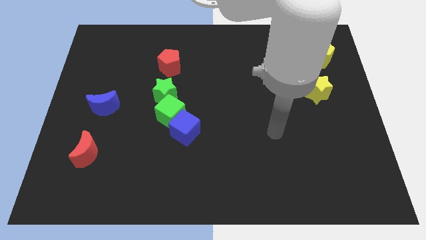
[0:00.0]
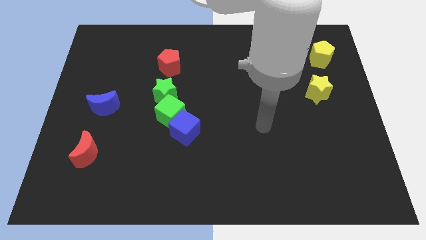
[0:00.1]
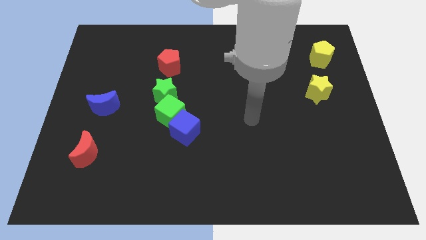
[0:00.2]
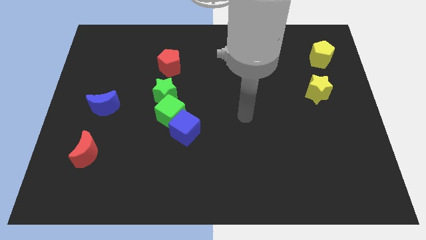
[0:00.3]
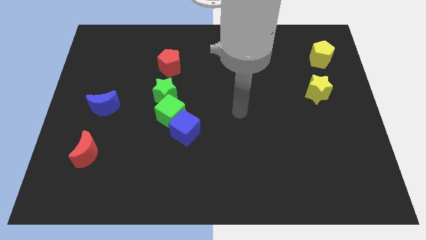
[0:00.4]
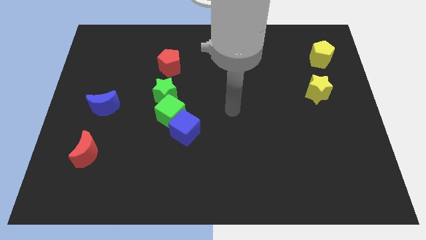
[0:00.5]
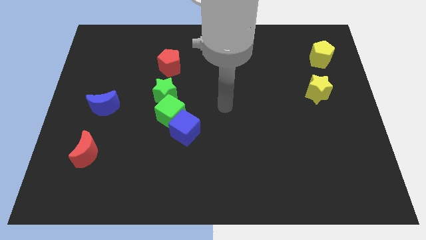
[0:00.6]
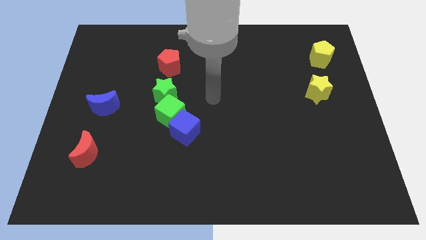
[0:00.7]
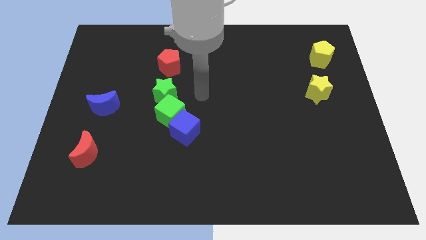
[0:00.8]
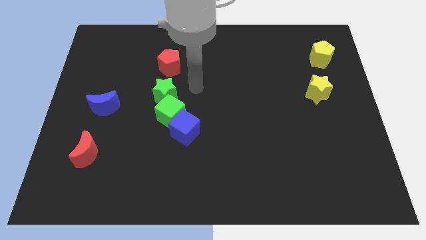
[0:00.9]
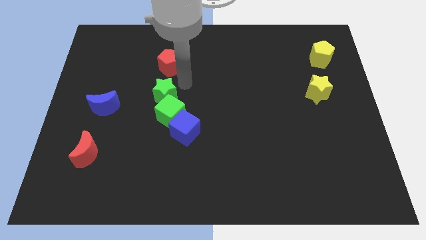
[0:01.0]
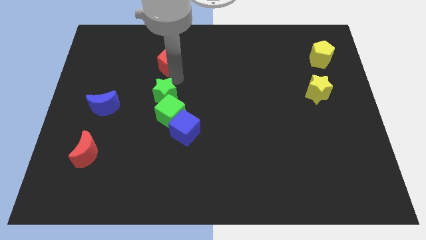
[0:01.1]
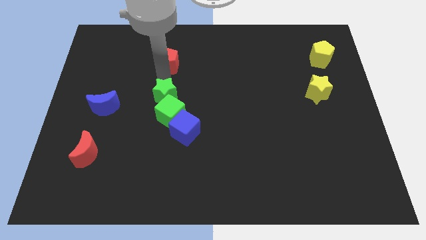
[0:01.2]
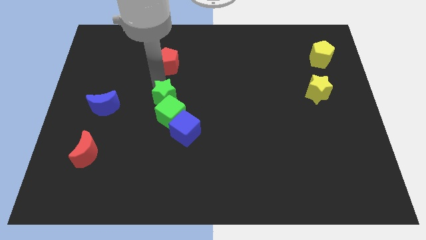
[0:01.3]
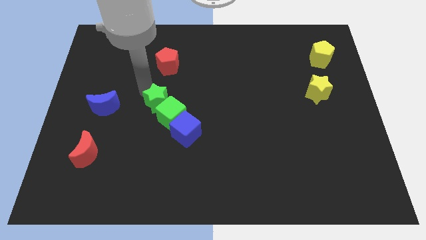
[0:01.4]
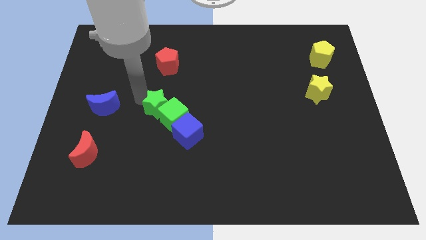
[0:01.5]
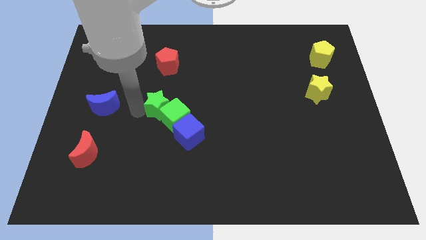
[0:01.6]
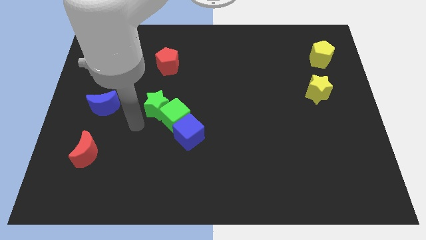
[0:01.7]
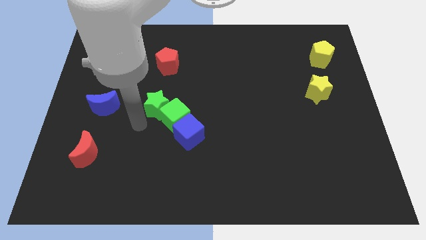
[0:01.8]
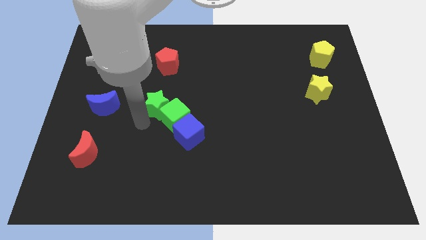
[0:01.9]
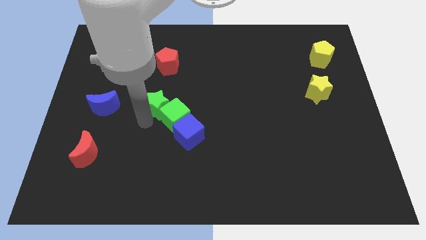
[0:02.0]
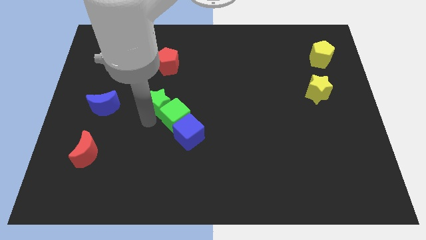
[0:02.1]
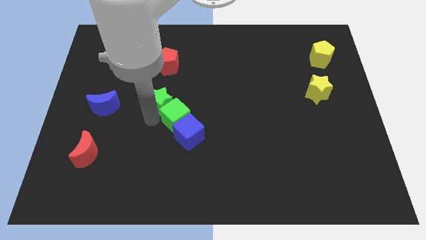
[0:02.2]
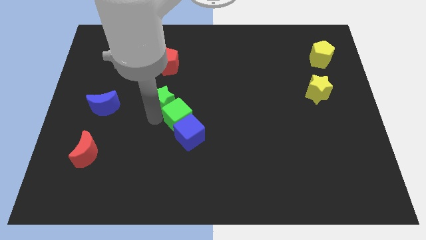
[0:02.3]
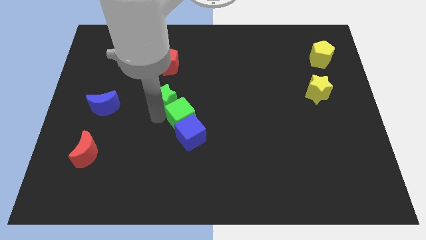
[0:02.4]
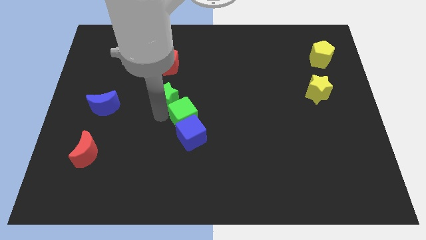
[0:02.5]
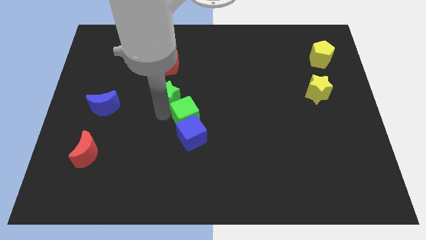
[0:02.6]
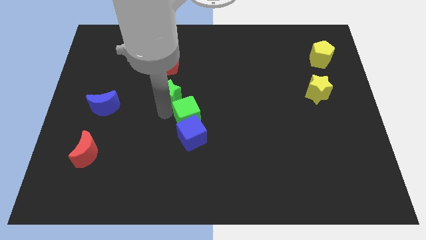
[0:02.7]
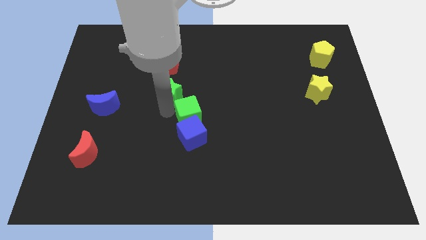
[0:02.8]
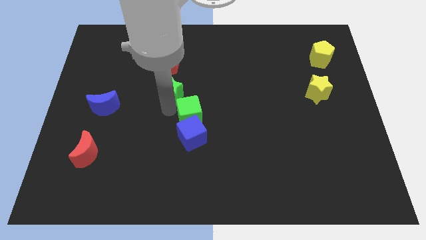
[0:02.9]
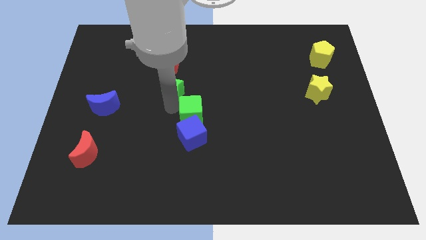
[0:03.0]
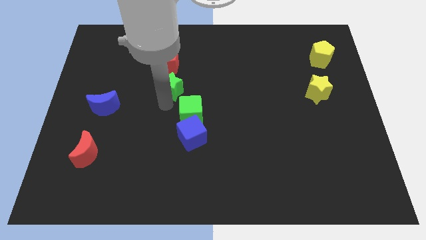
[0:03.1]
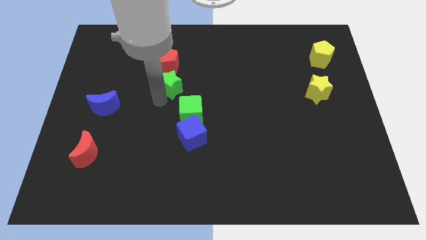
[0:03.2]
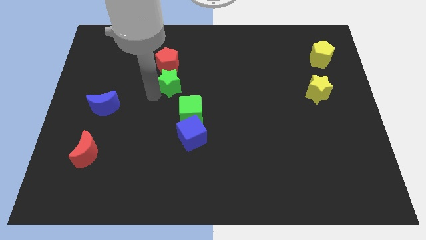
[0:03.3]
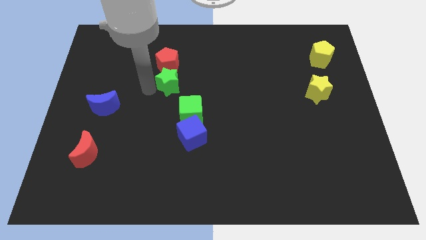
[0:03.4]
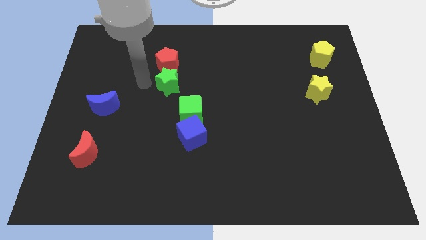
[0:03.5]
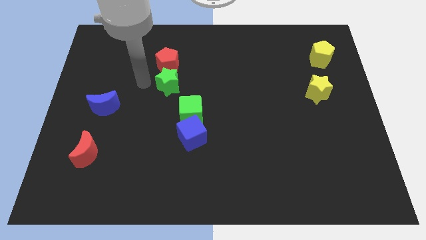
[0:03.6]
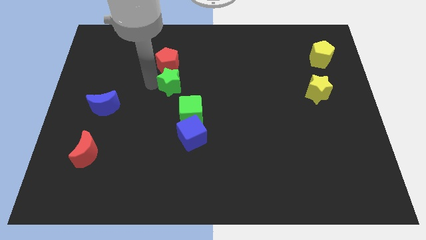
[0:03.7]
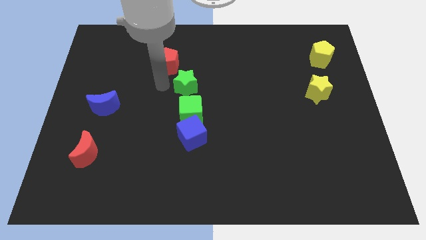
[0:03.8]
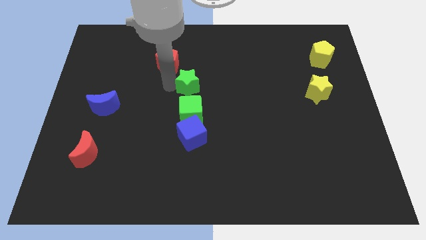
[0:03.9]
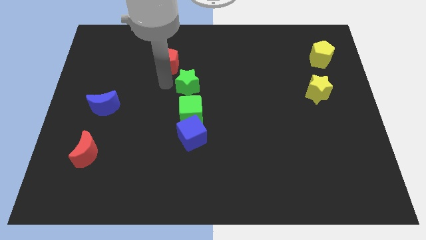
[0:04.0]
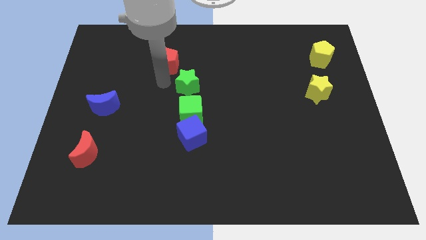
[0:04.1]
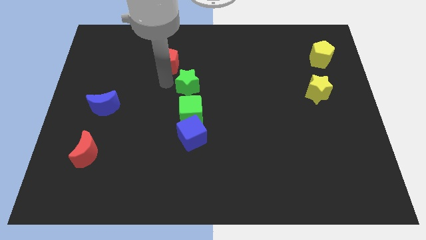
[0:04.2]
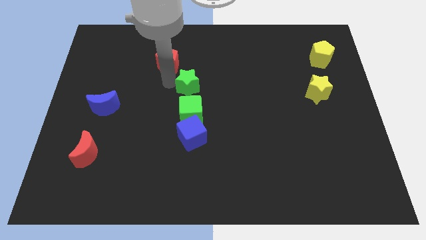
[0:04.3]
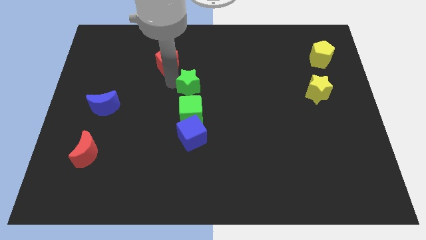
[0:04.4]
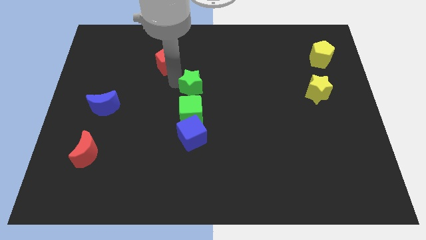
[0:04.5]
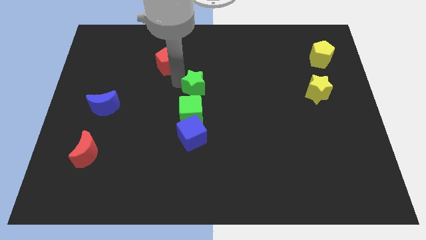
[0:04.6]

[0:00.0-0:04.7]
push the green star somewhat to the right

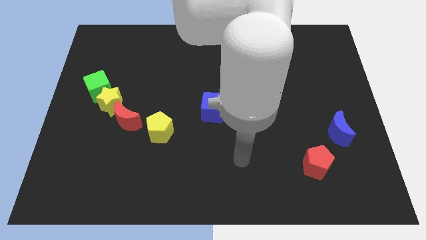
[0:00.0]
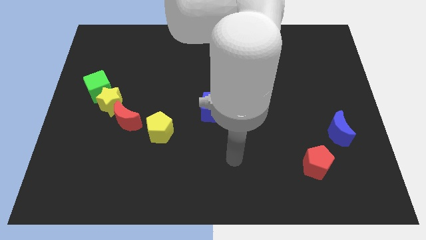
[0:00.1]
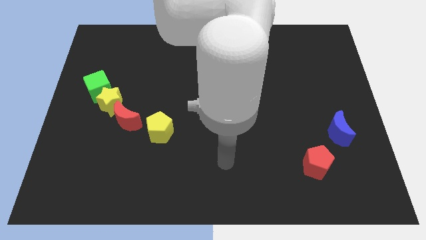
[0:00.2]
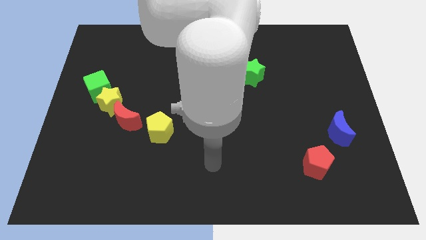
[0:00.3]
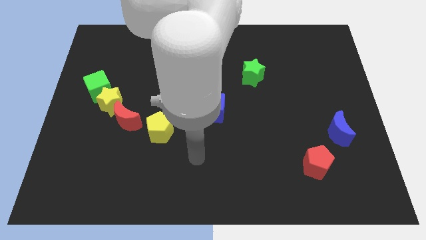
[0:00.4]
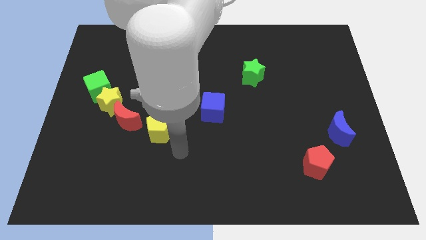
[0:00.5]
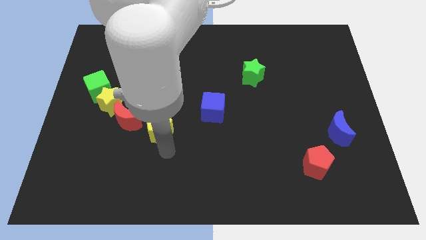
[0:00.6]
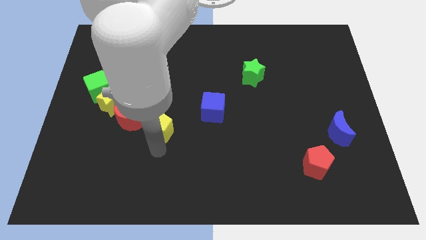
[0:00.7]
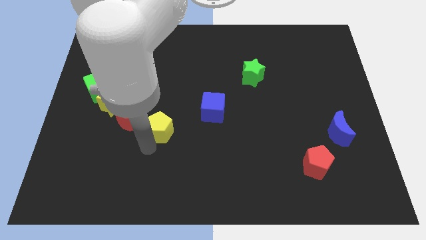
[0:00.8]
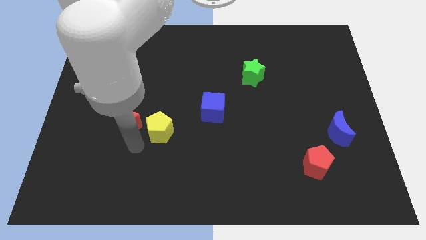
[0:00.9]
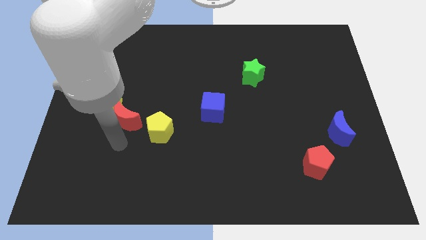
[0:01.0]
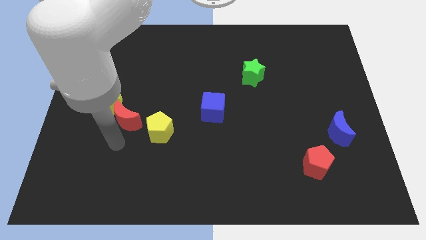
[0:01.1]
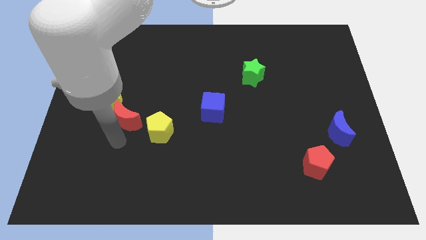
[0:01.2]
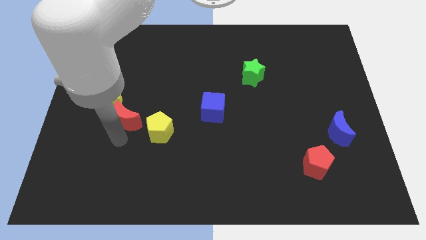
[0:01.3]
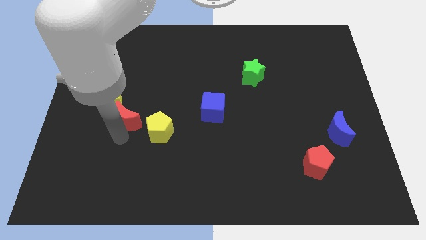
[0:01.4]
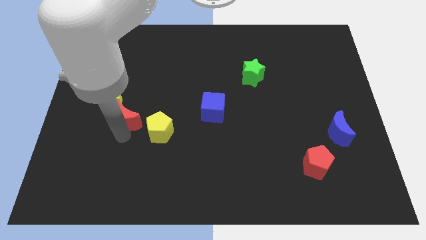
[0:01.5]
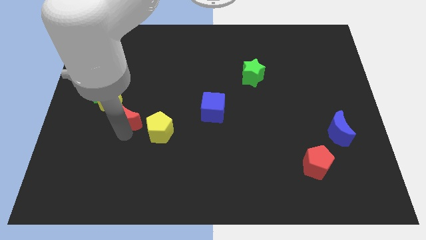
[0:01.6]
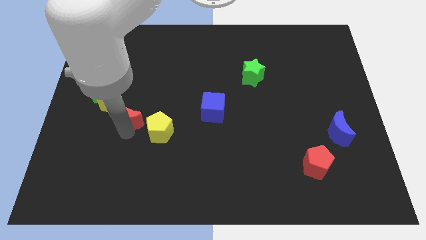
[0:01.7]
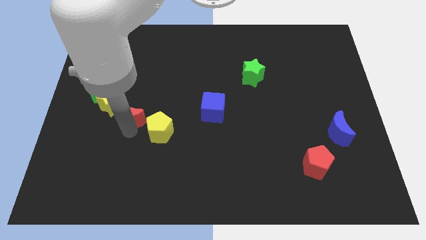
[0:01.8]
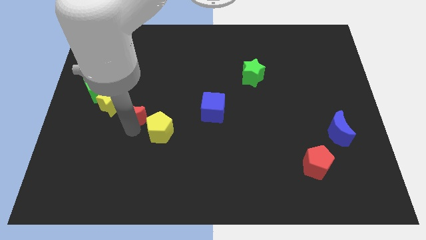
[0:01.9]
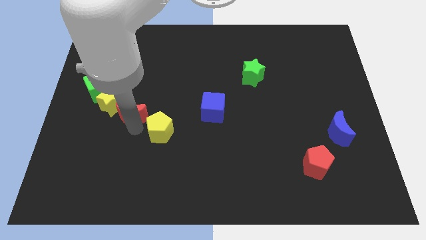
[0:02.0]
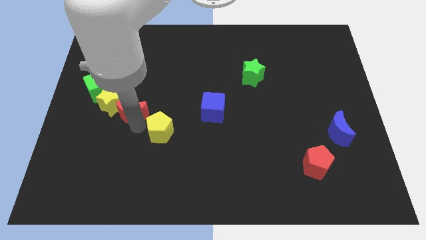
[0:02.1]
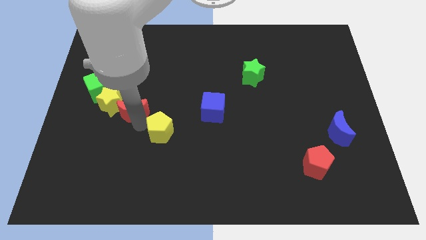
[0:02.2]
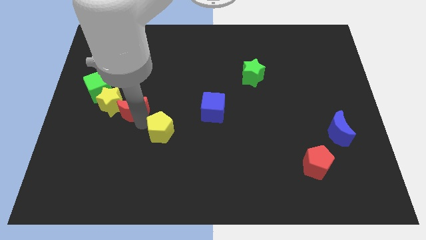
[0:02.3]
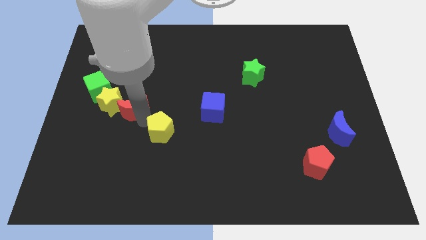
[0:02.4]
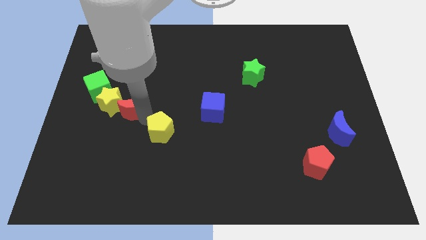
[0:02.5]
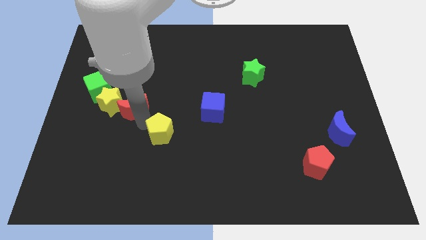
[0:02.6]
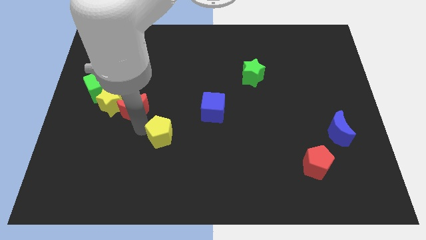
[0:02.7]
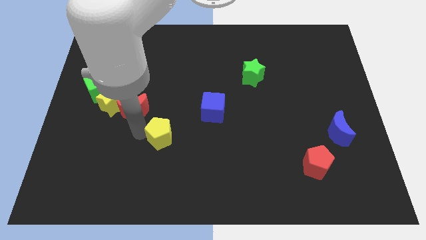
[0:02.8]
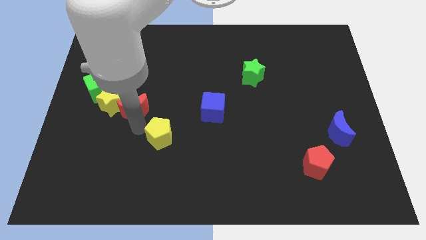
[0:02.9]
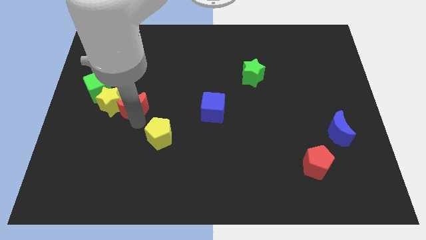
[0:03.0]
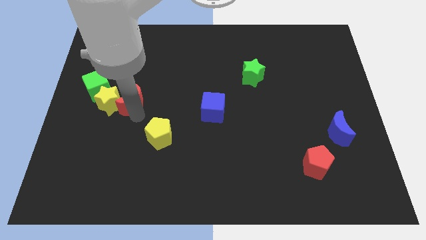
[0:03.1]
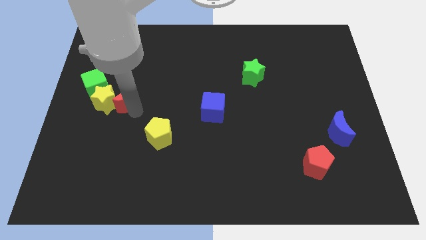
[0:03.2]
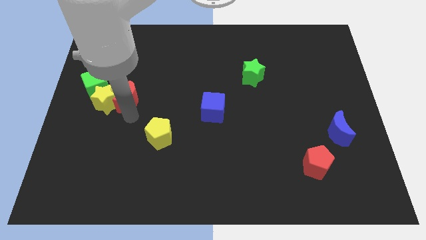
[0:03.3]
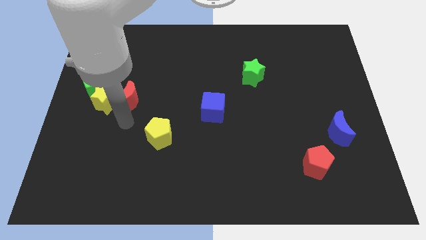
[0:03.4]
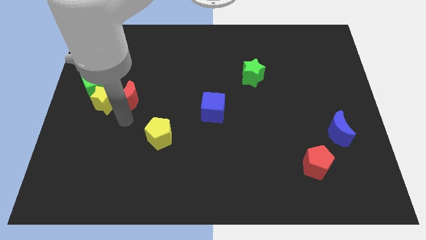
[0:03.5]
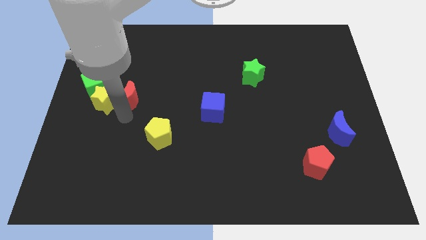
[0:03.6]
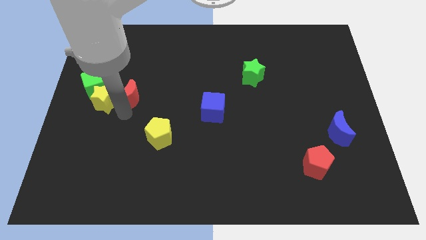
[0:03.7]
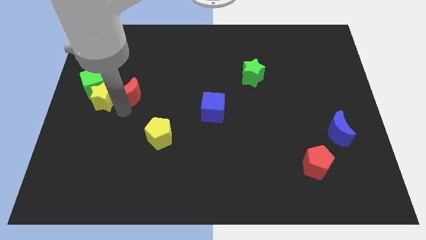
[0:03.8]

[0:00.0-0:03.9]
slightly slide the red moon up
